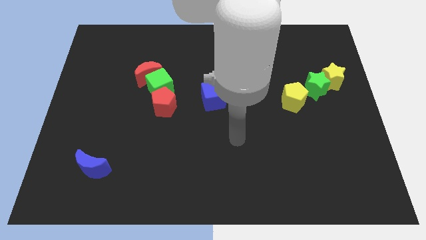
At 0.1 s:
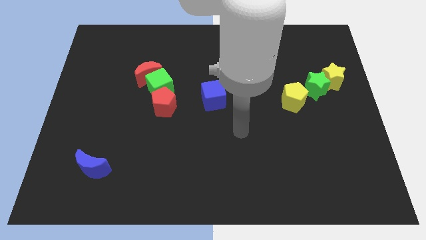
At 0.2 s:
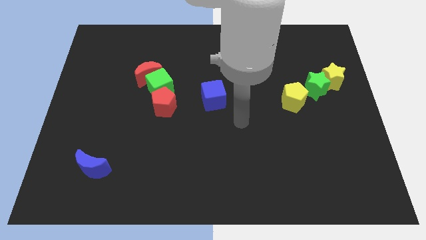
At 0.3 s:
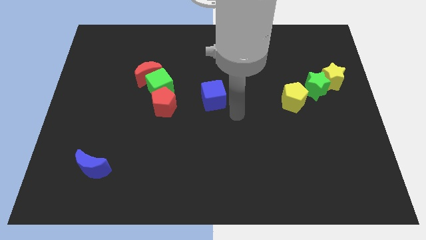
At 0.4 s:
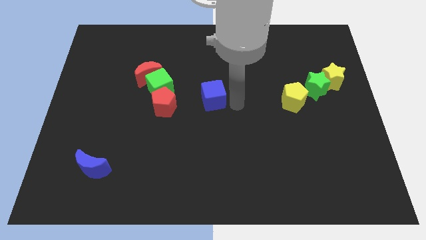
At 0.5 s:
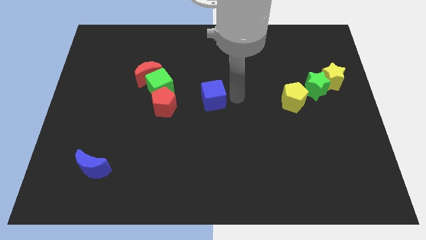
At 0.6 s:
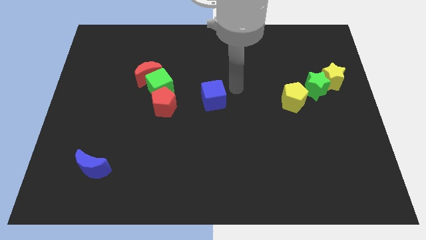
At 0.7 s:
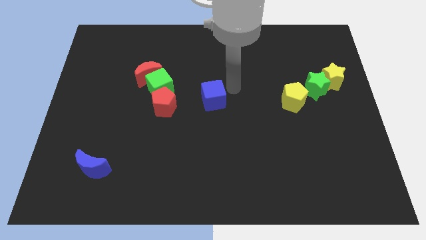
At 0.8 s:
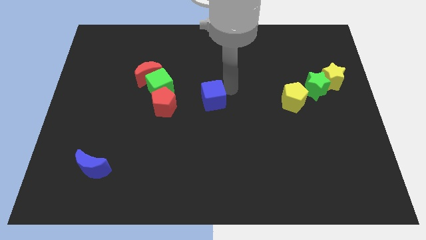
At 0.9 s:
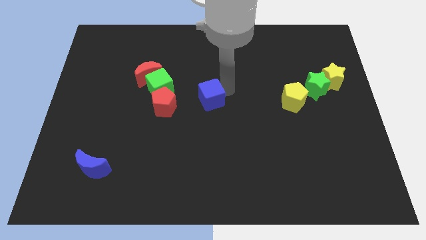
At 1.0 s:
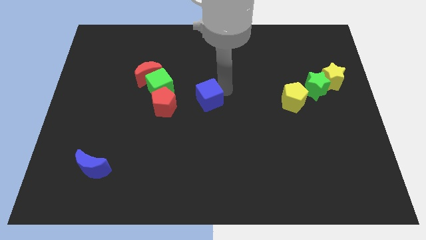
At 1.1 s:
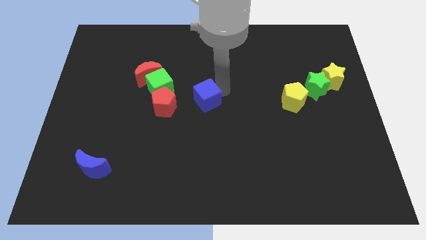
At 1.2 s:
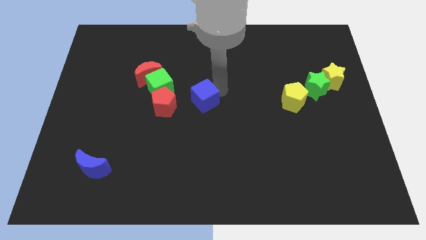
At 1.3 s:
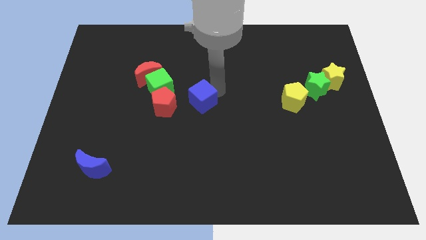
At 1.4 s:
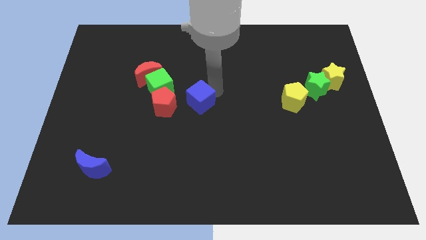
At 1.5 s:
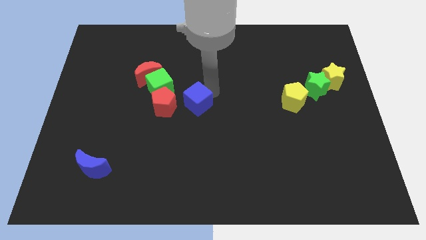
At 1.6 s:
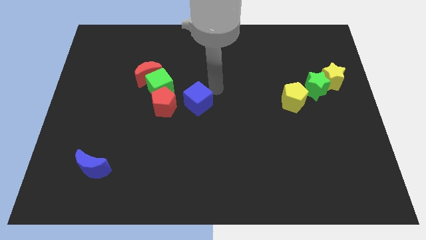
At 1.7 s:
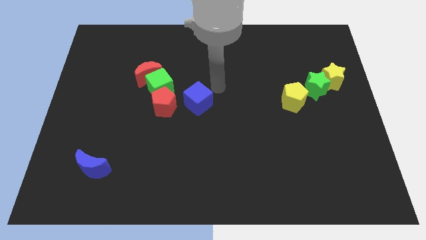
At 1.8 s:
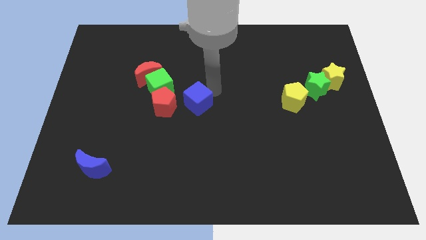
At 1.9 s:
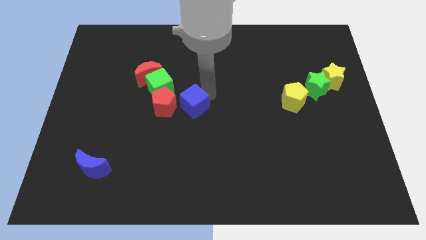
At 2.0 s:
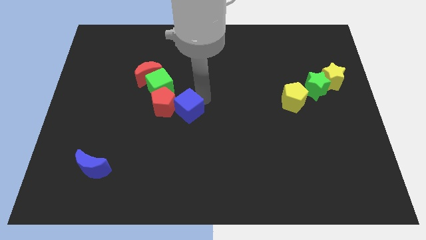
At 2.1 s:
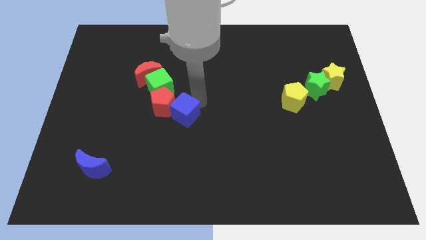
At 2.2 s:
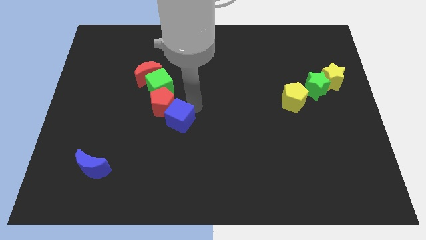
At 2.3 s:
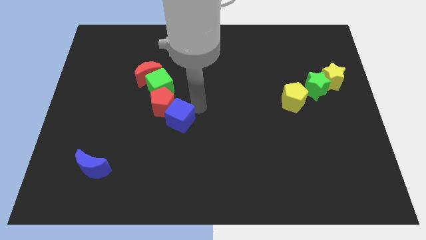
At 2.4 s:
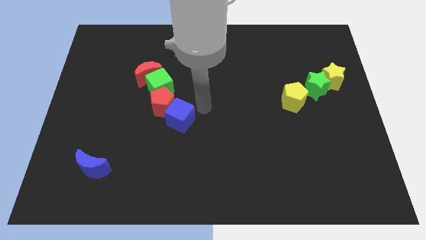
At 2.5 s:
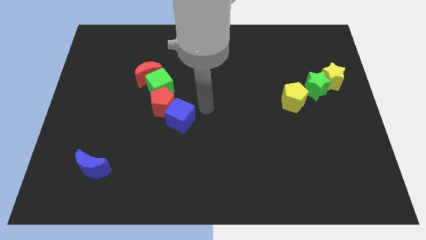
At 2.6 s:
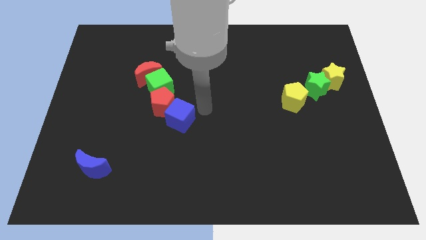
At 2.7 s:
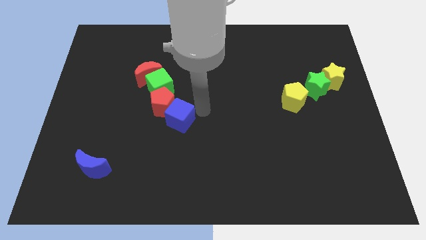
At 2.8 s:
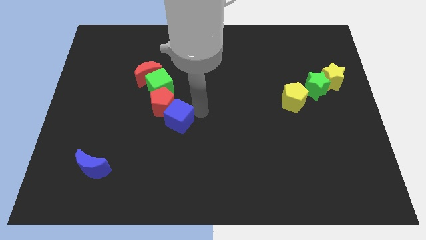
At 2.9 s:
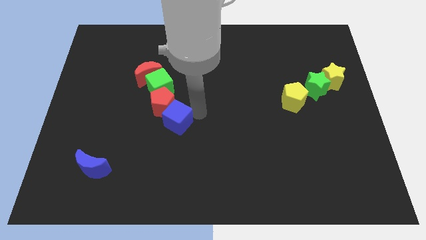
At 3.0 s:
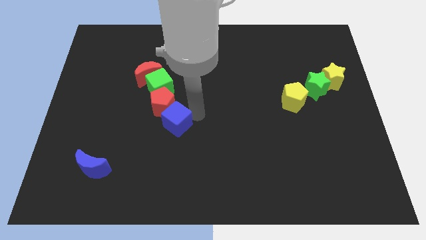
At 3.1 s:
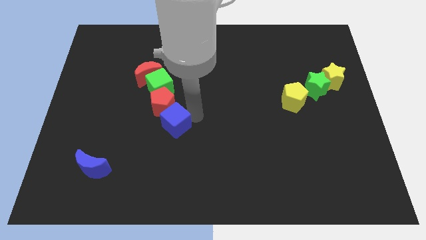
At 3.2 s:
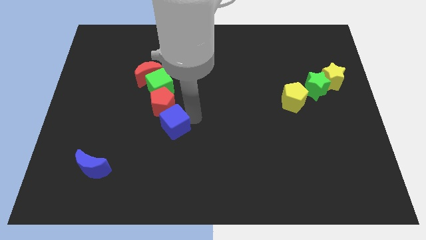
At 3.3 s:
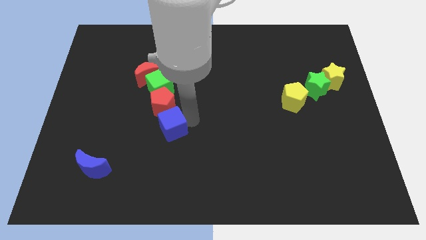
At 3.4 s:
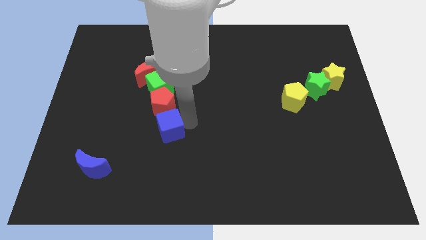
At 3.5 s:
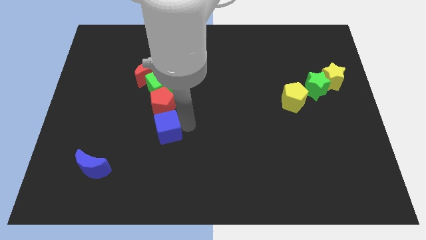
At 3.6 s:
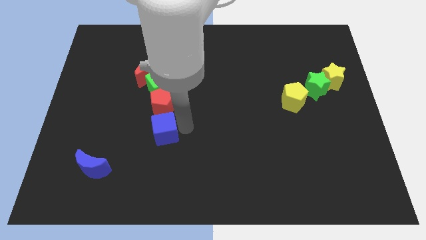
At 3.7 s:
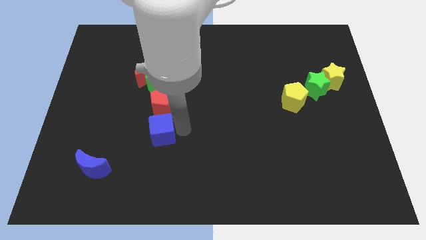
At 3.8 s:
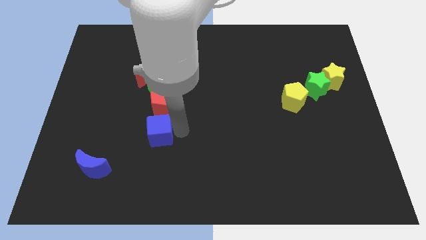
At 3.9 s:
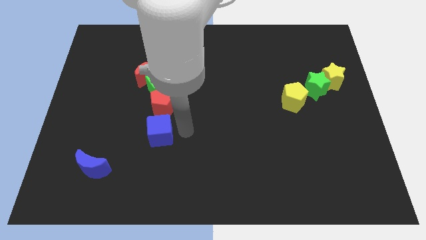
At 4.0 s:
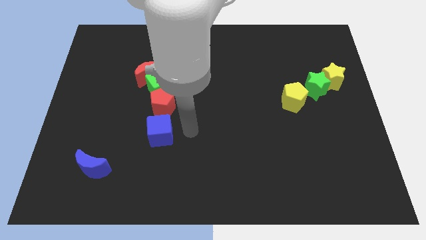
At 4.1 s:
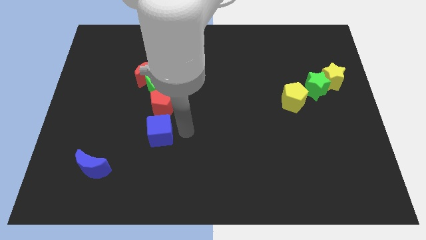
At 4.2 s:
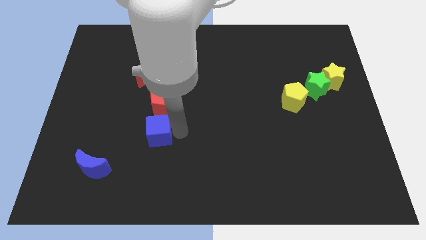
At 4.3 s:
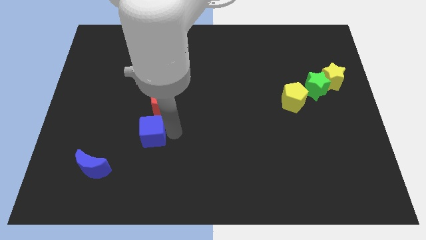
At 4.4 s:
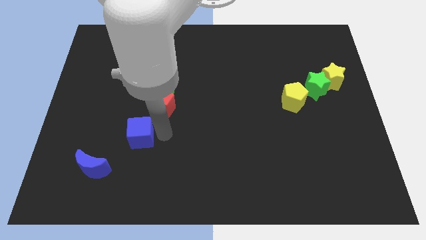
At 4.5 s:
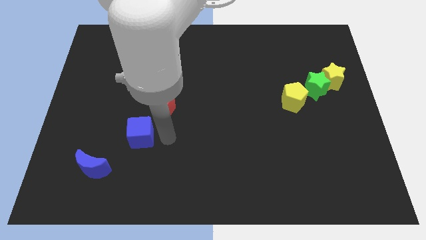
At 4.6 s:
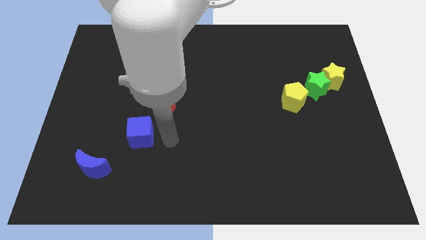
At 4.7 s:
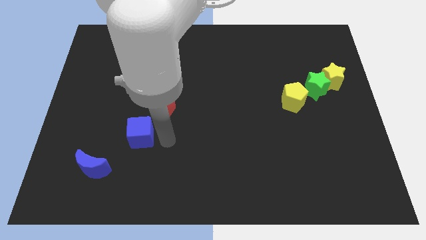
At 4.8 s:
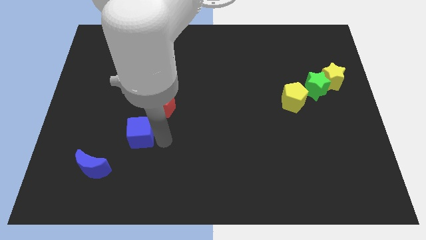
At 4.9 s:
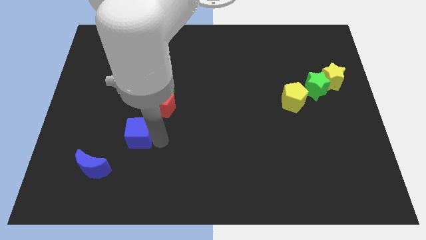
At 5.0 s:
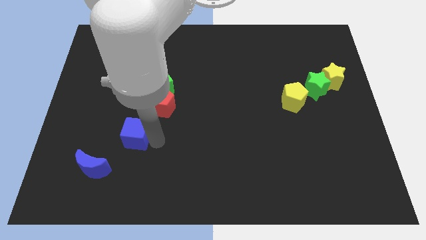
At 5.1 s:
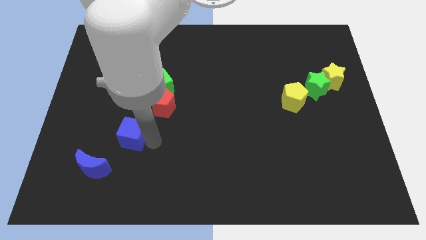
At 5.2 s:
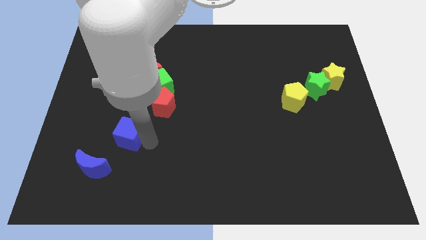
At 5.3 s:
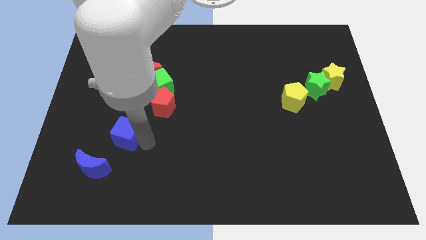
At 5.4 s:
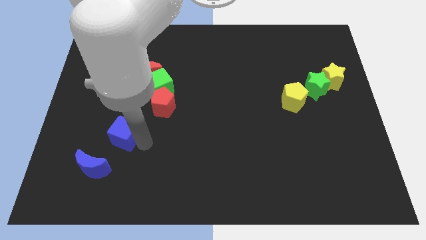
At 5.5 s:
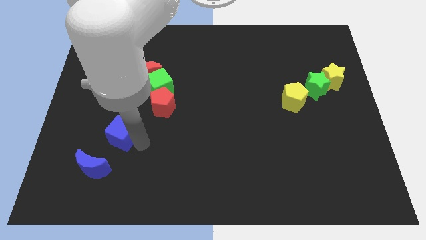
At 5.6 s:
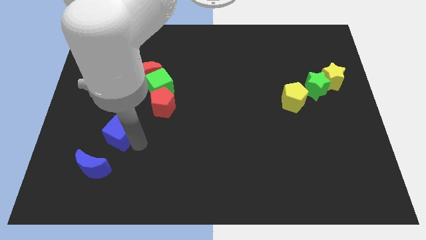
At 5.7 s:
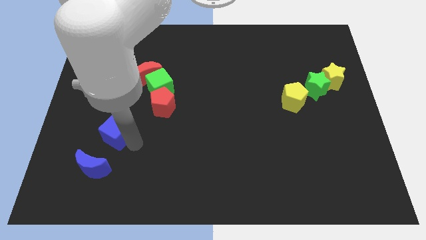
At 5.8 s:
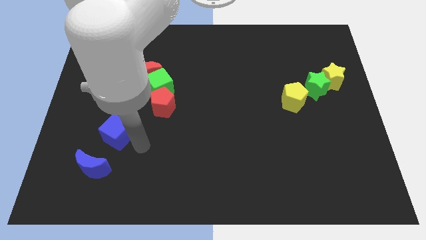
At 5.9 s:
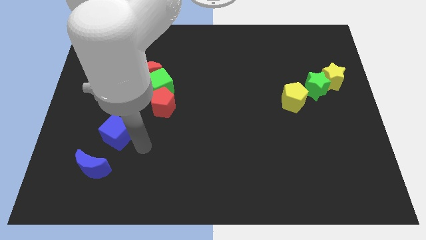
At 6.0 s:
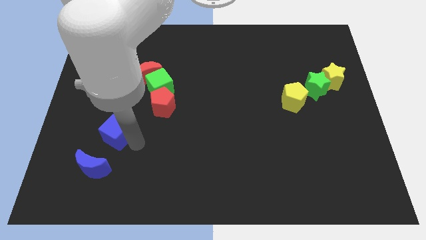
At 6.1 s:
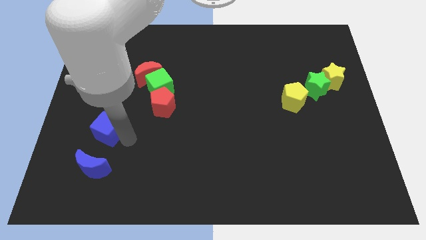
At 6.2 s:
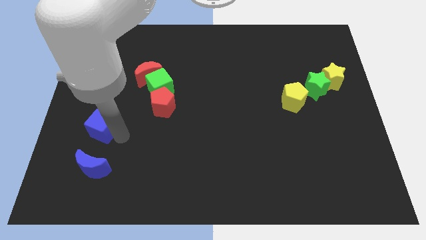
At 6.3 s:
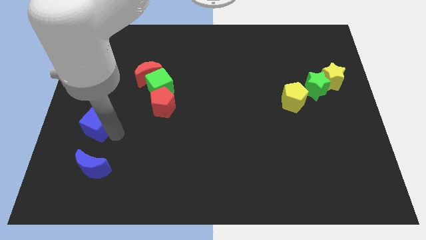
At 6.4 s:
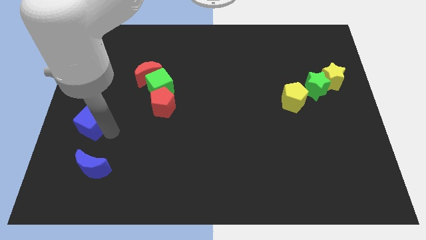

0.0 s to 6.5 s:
move the blue cube to the left side

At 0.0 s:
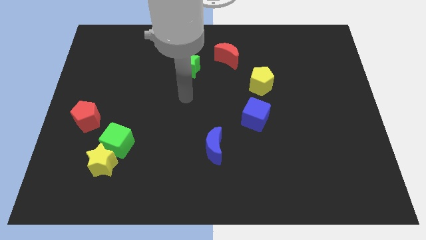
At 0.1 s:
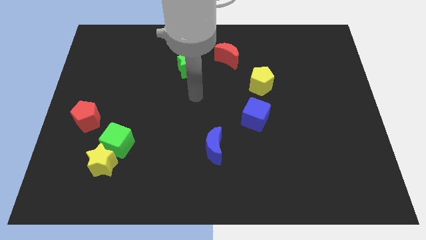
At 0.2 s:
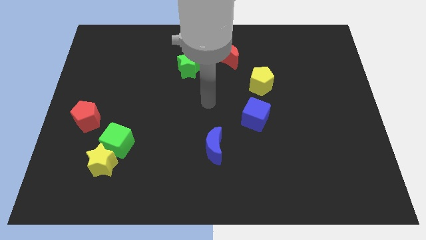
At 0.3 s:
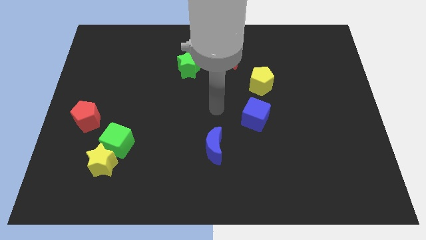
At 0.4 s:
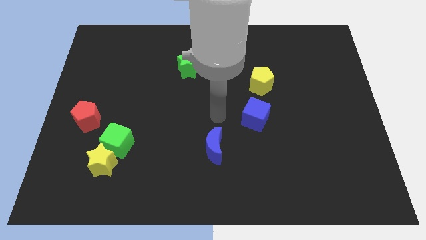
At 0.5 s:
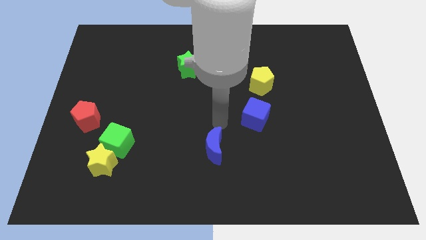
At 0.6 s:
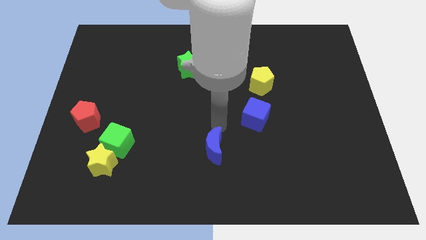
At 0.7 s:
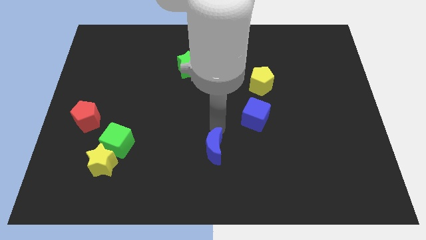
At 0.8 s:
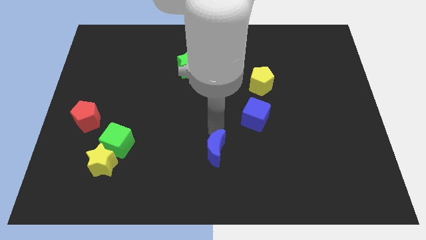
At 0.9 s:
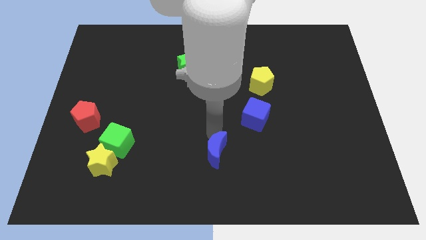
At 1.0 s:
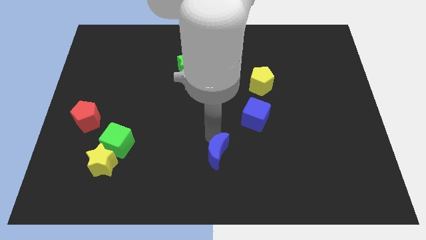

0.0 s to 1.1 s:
slide the blue moon to the bottom
